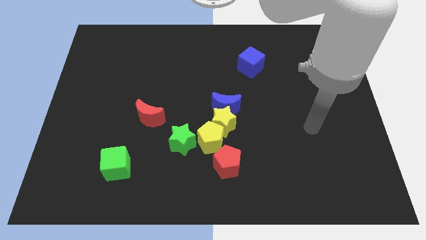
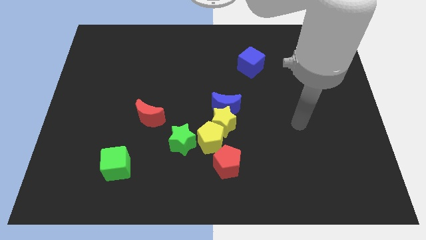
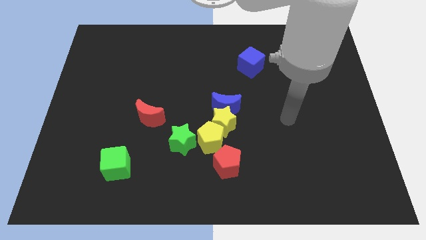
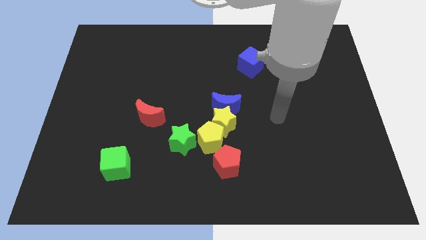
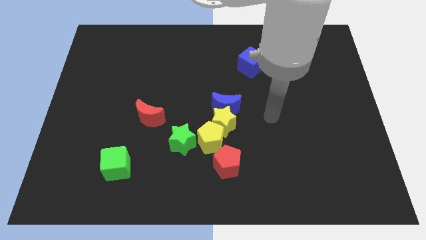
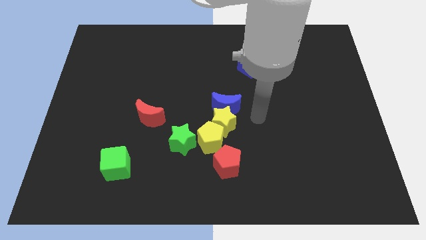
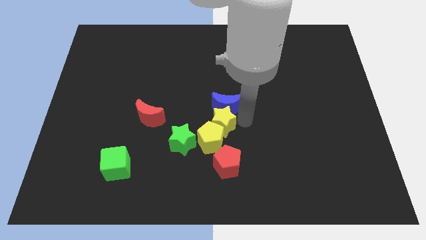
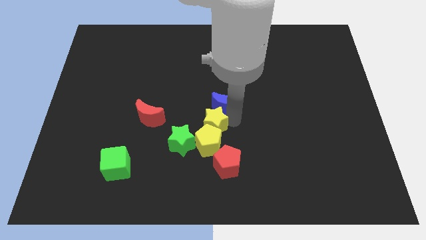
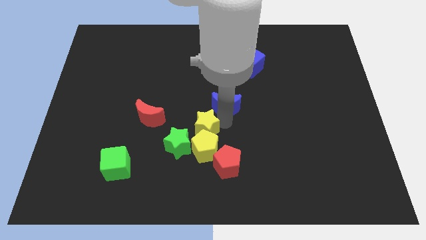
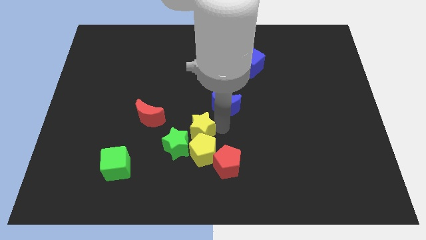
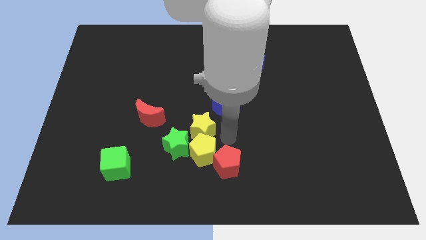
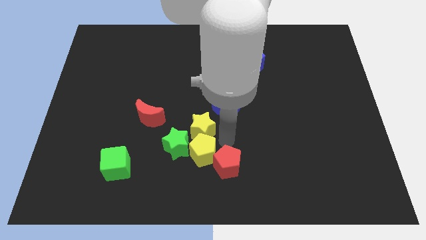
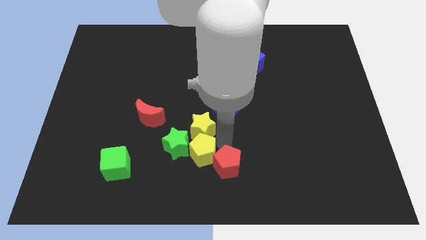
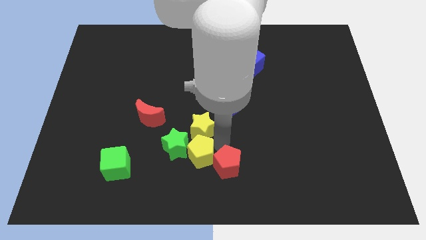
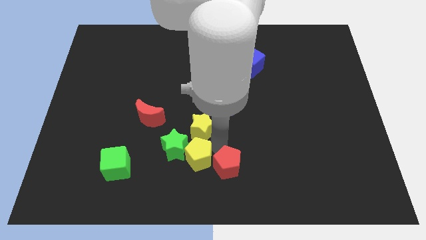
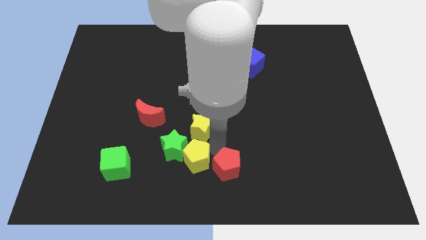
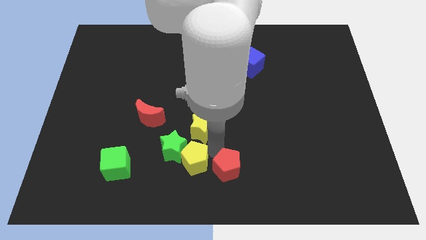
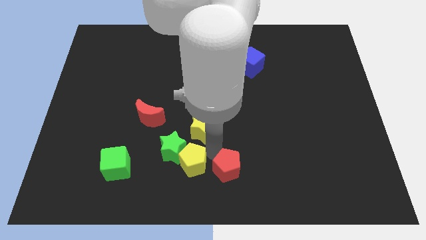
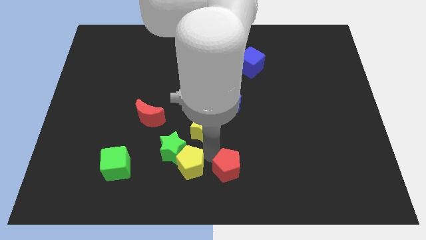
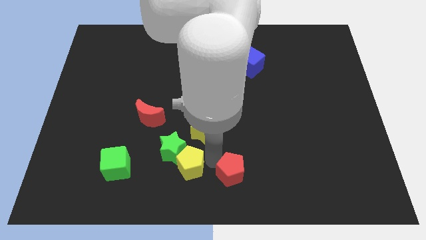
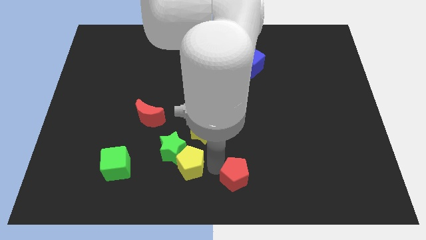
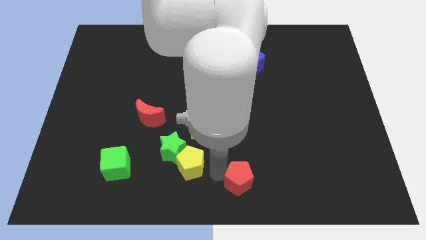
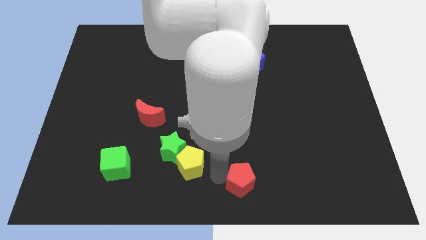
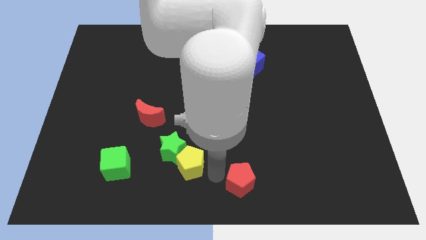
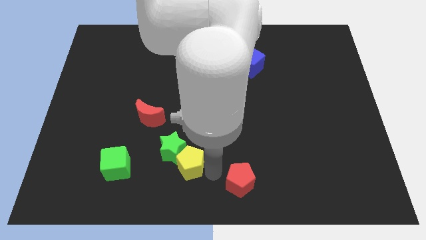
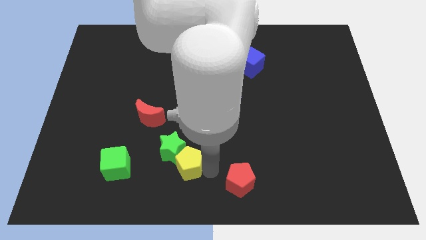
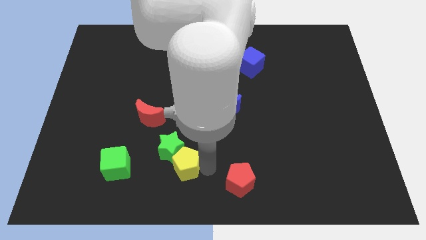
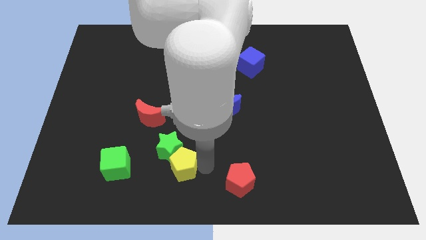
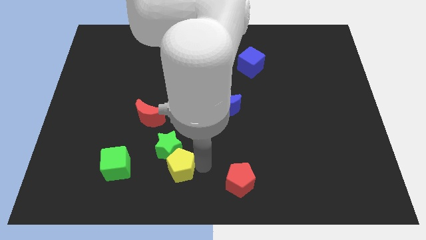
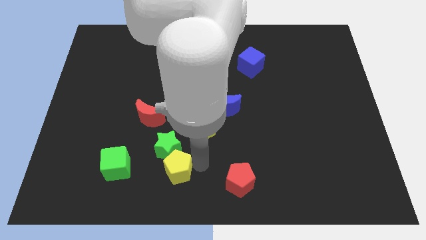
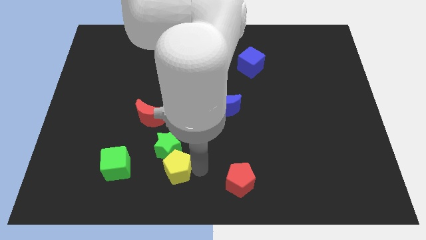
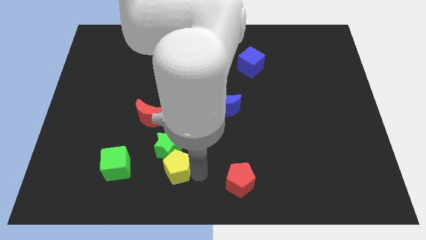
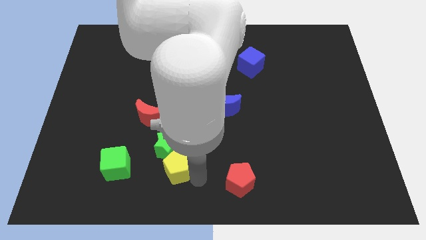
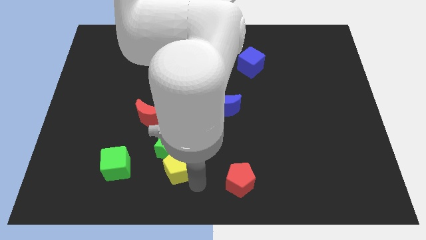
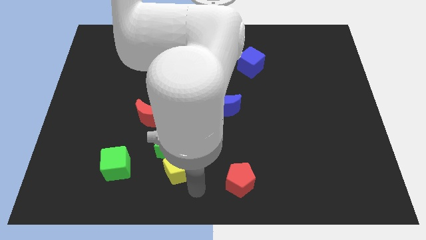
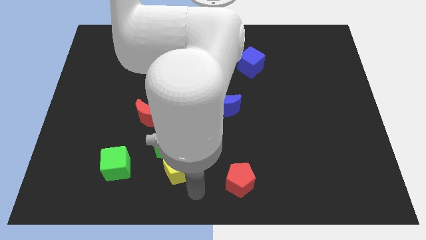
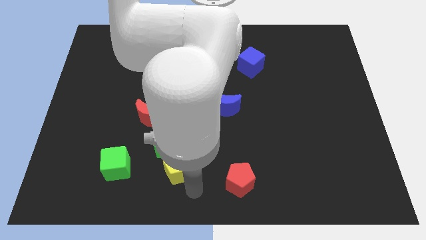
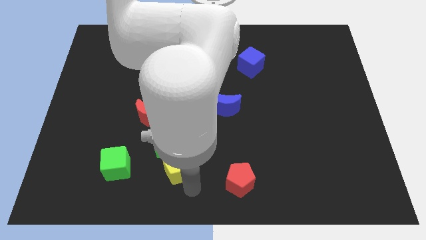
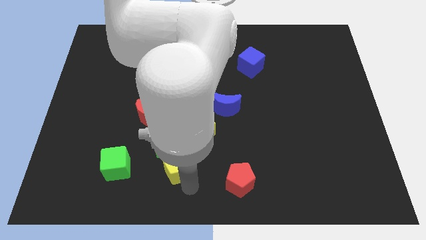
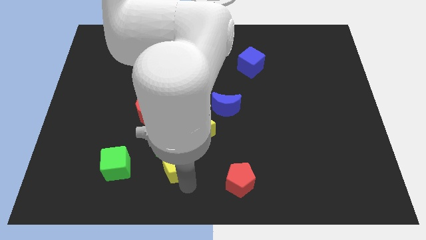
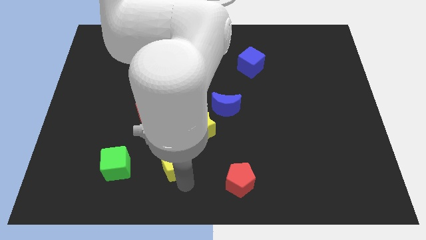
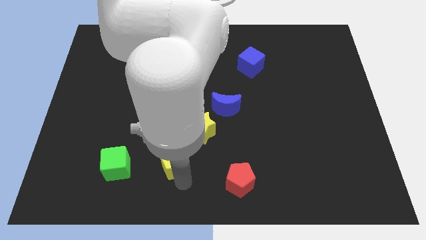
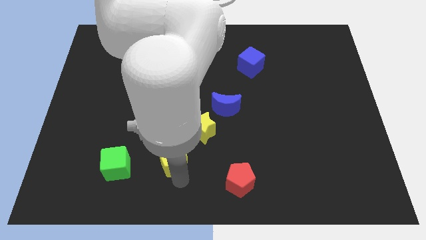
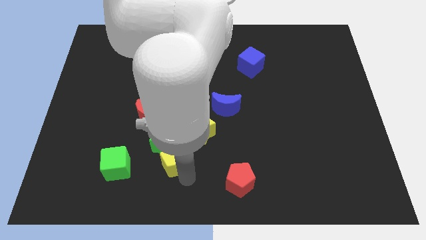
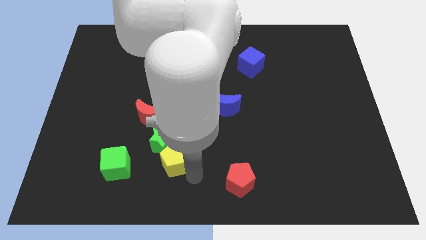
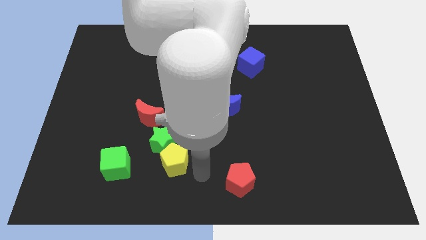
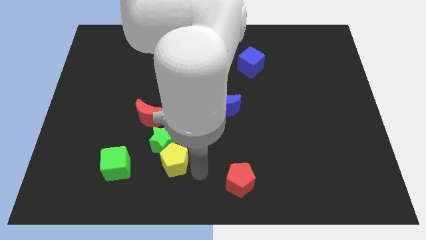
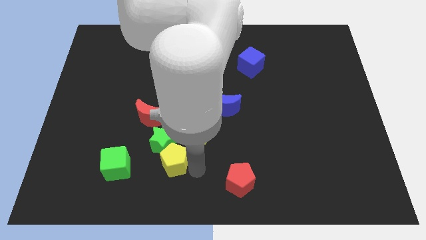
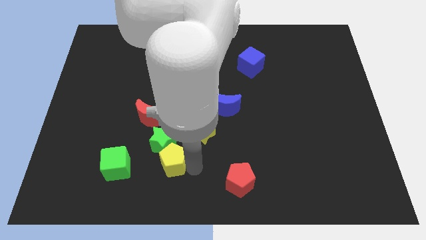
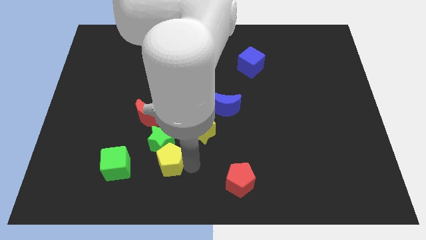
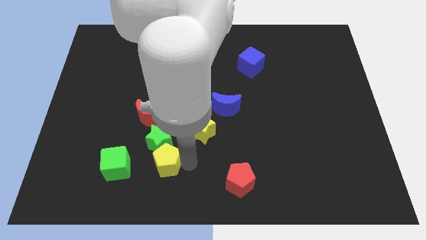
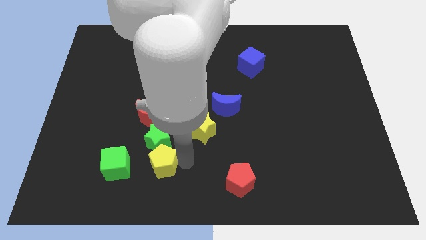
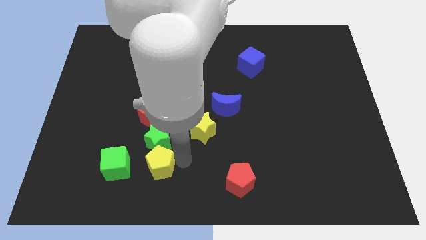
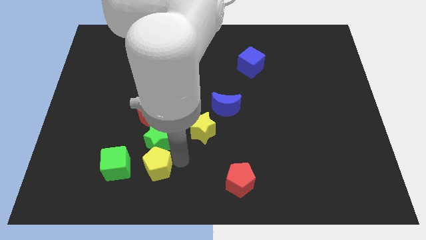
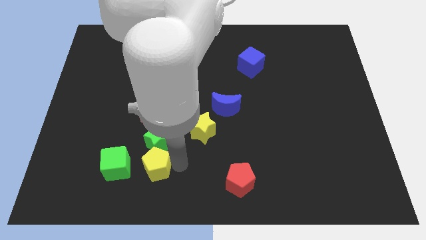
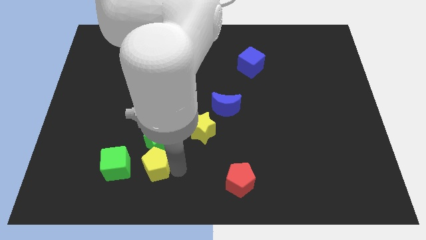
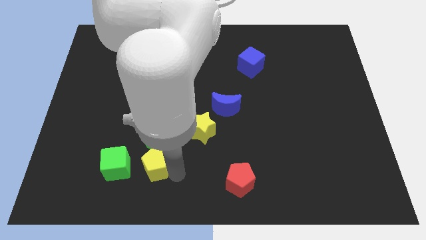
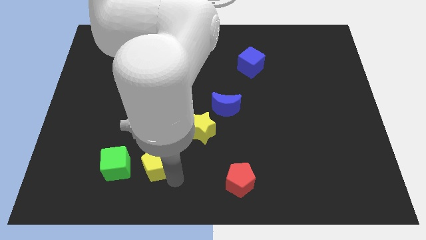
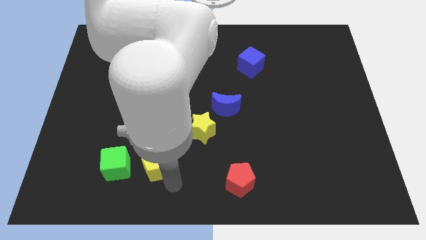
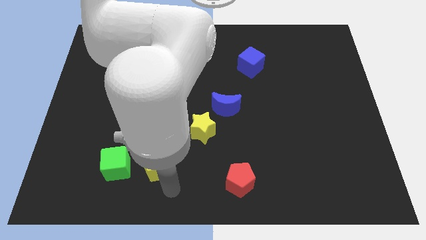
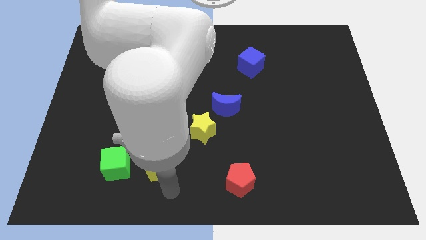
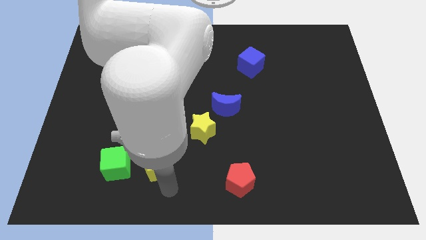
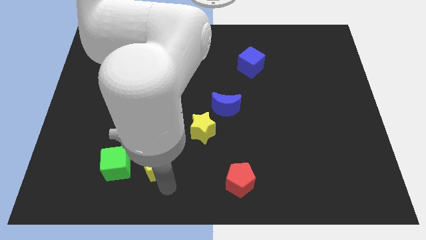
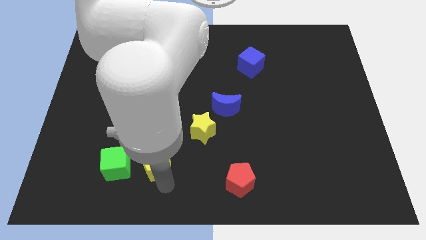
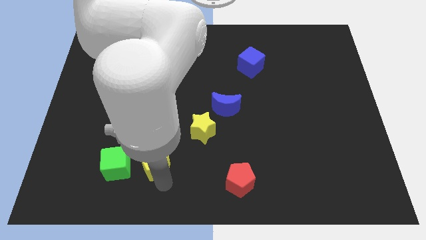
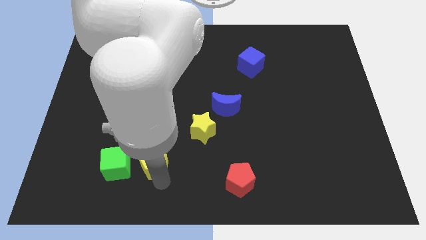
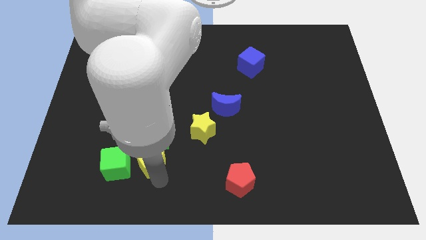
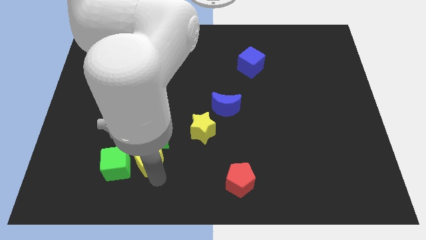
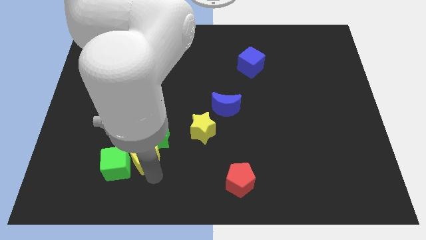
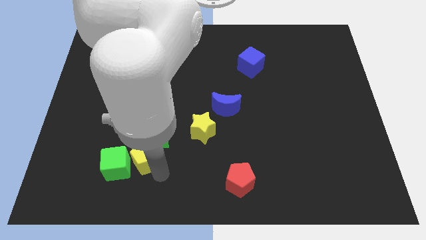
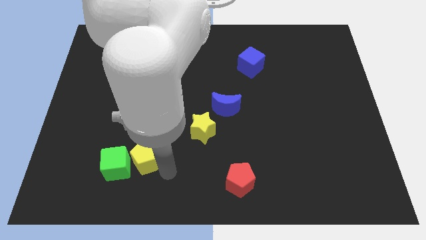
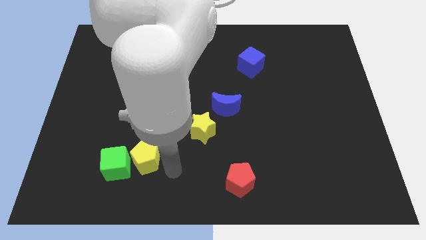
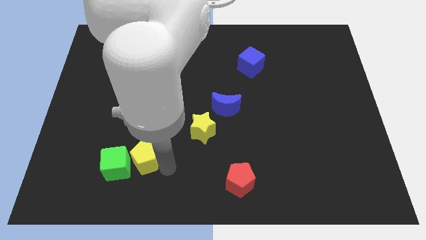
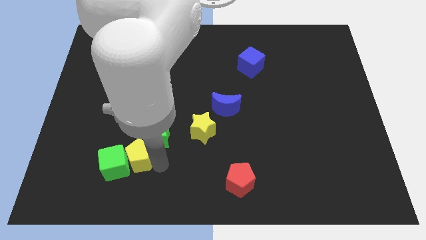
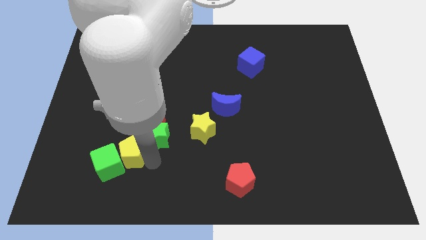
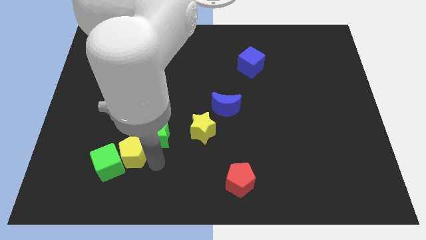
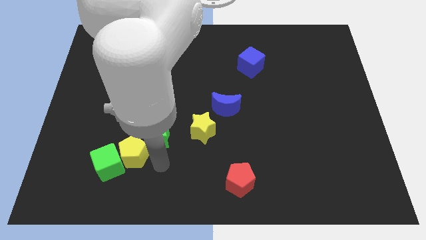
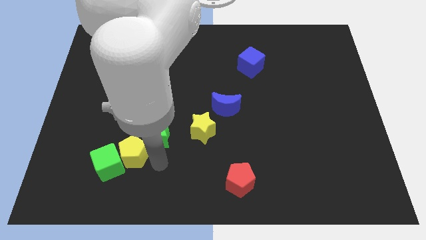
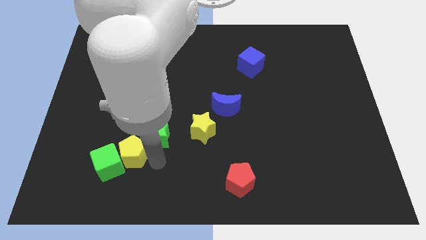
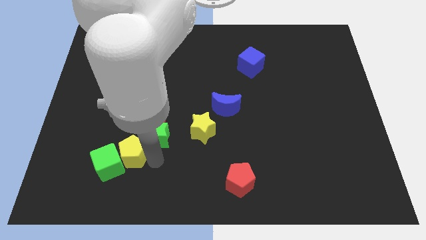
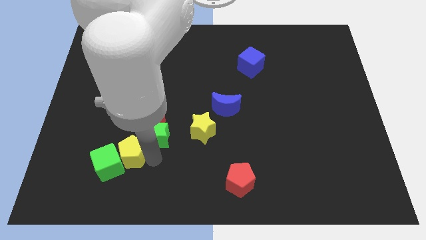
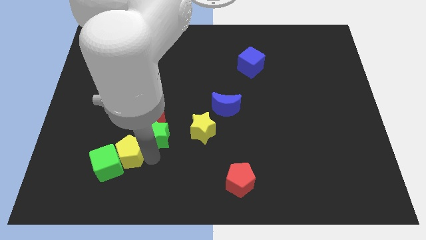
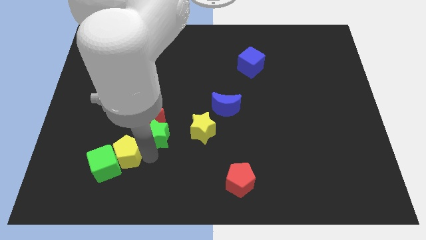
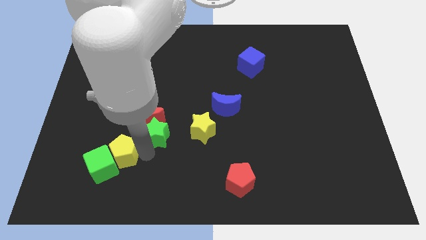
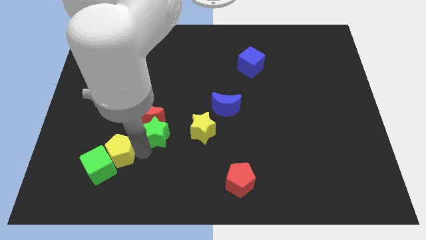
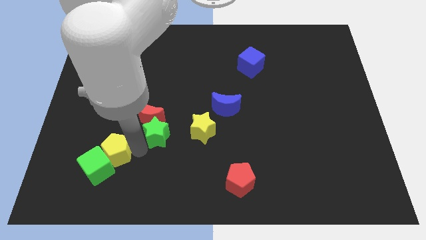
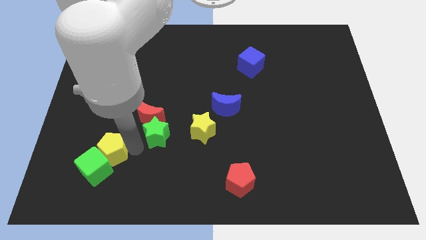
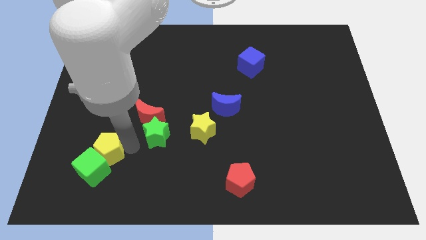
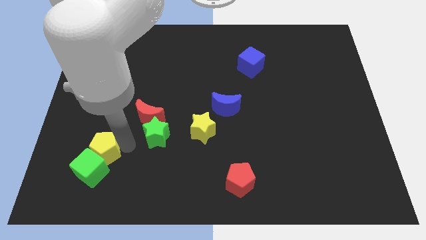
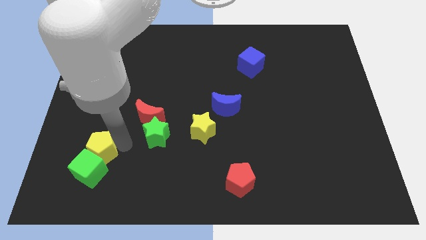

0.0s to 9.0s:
slide the yellow pentagon to the top left side of the green cube
